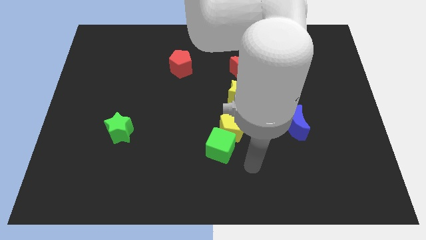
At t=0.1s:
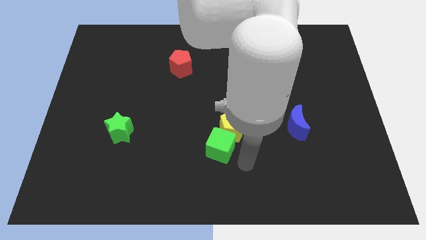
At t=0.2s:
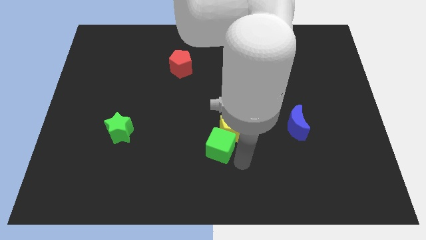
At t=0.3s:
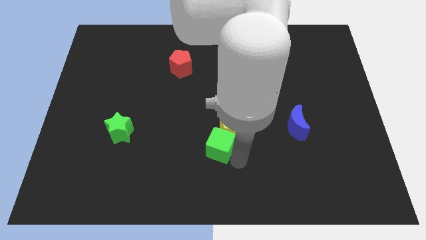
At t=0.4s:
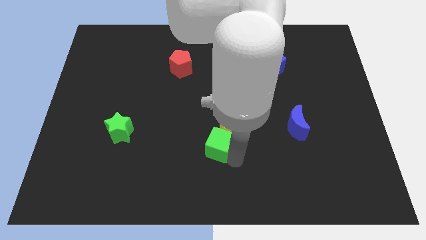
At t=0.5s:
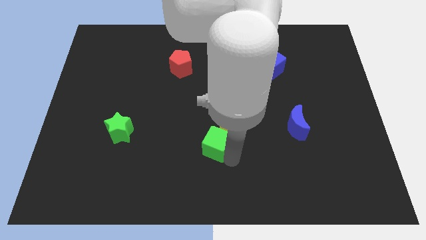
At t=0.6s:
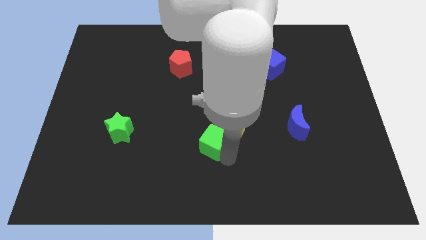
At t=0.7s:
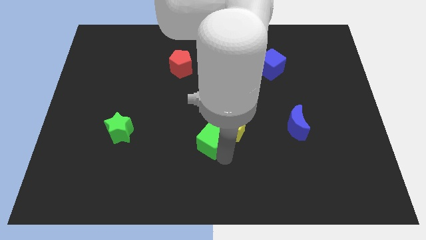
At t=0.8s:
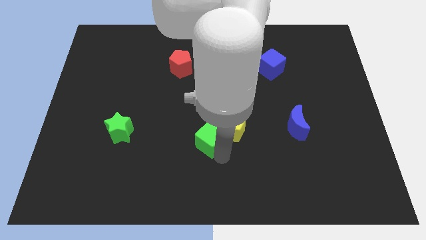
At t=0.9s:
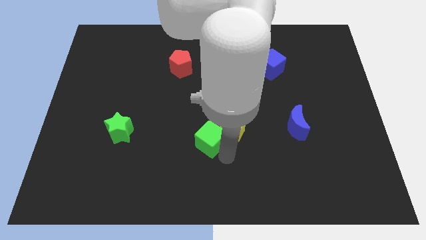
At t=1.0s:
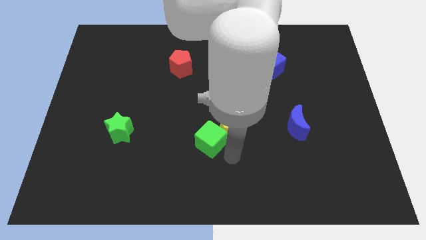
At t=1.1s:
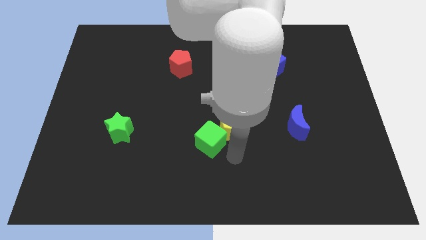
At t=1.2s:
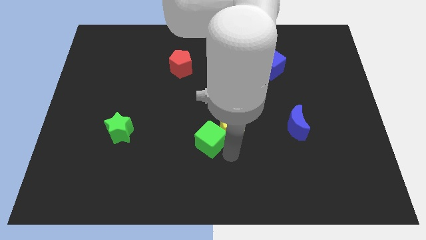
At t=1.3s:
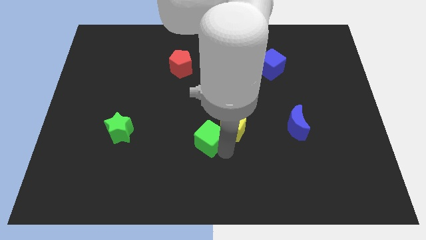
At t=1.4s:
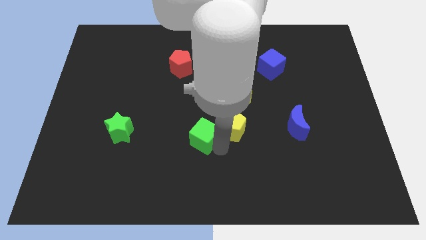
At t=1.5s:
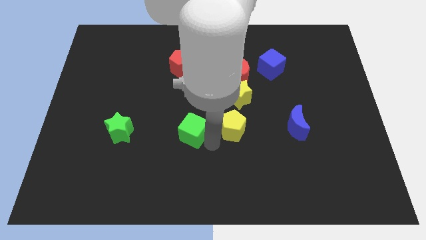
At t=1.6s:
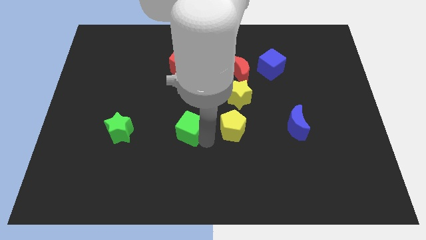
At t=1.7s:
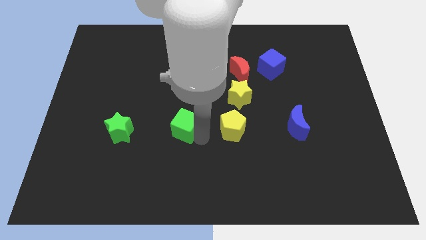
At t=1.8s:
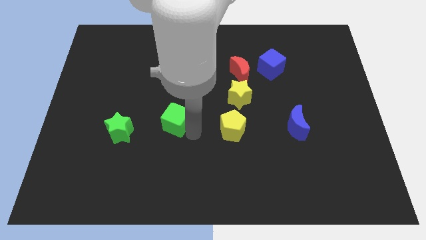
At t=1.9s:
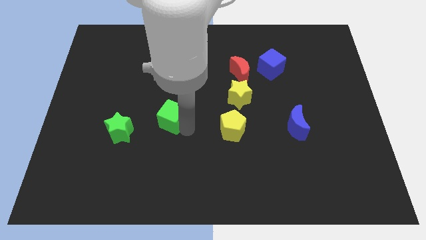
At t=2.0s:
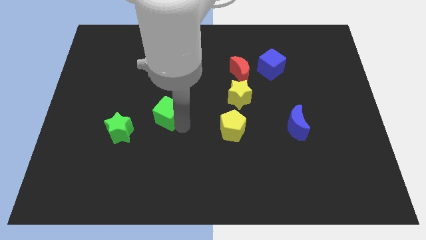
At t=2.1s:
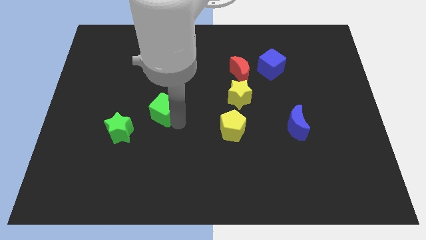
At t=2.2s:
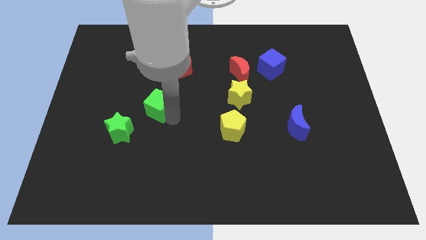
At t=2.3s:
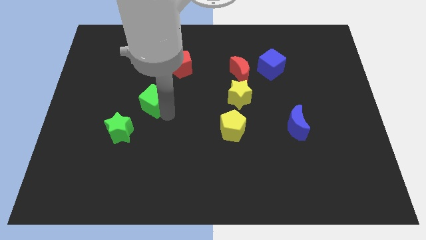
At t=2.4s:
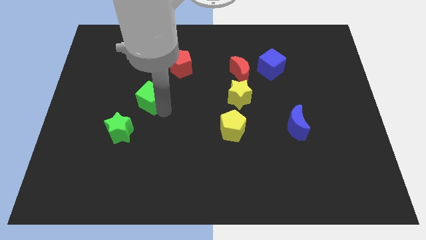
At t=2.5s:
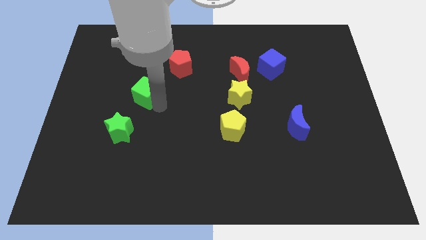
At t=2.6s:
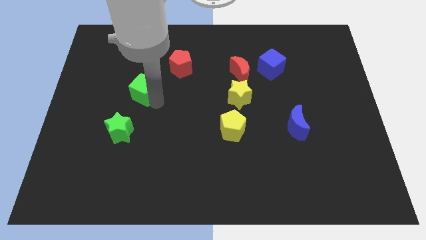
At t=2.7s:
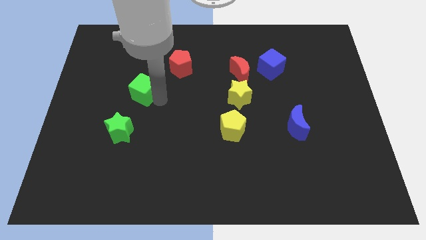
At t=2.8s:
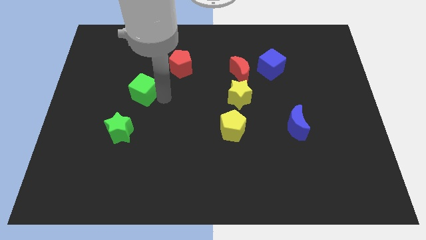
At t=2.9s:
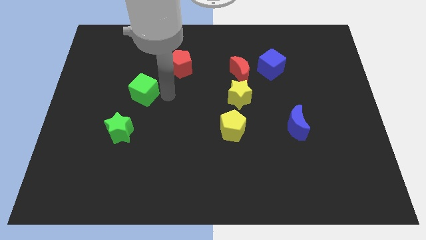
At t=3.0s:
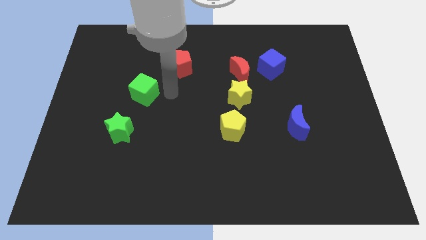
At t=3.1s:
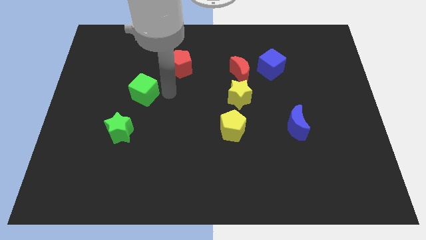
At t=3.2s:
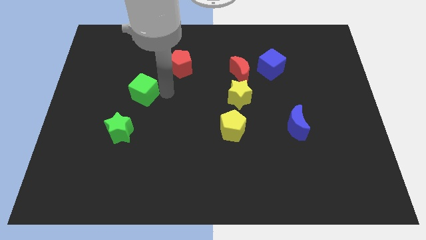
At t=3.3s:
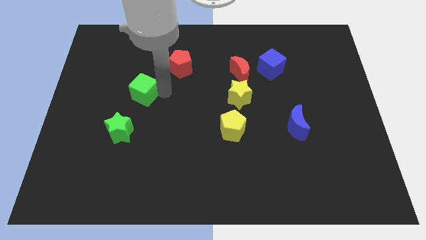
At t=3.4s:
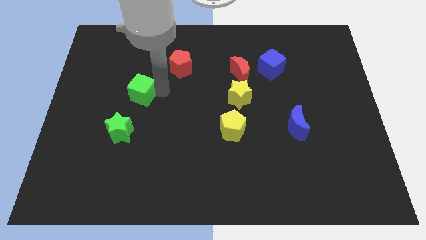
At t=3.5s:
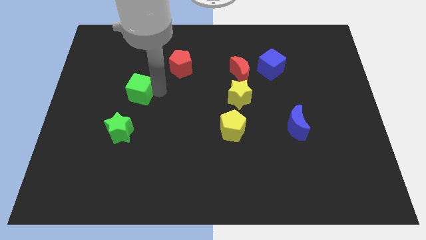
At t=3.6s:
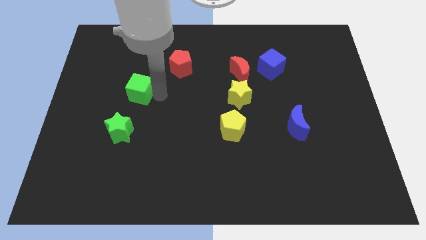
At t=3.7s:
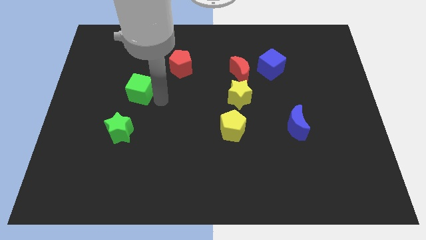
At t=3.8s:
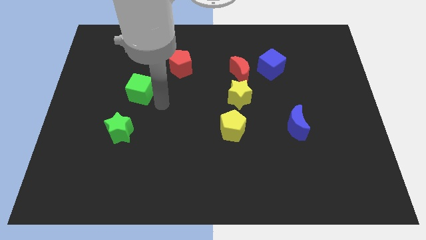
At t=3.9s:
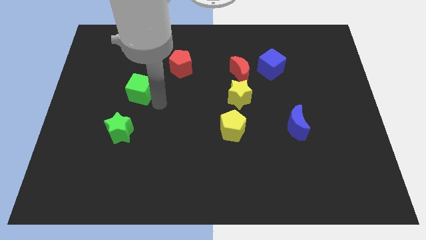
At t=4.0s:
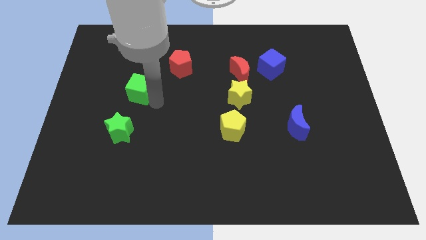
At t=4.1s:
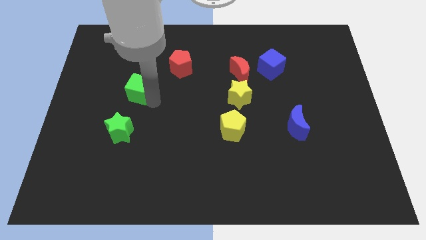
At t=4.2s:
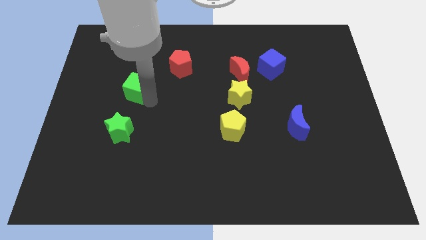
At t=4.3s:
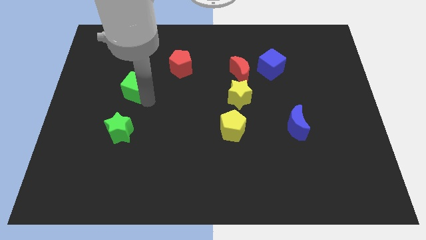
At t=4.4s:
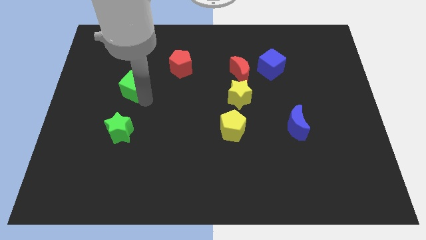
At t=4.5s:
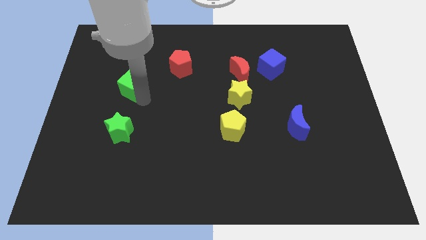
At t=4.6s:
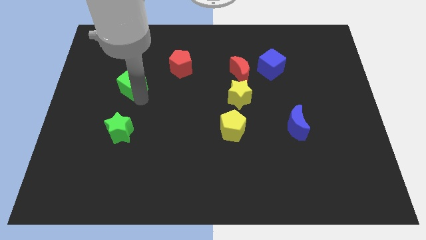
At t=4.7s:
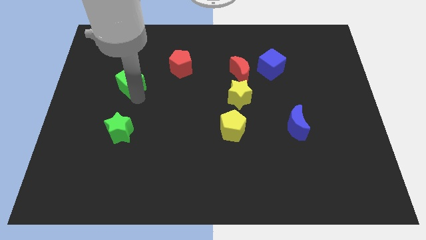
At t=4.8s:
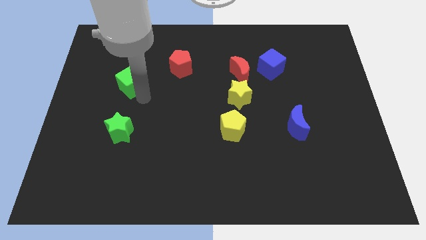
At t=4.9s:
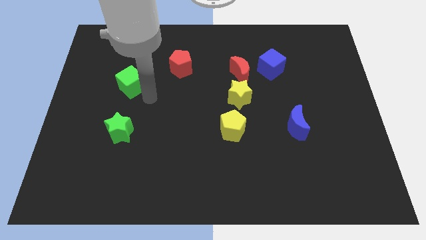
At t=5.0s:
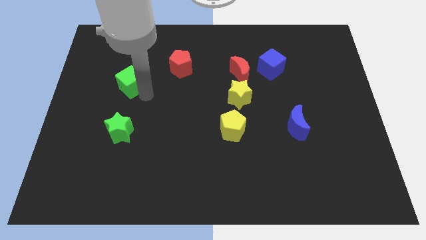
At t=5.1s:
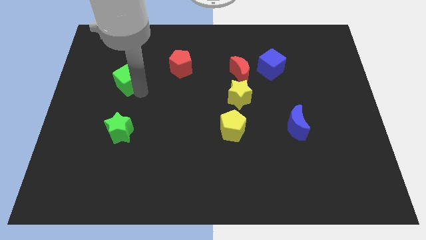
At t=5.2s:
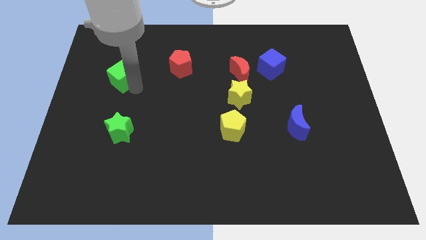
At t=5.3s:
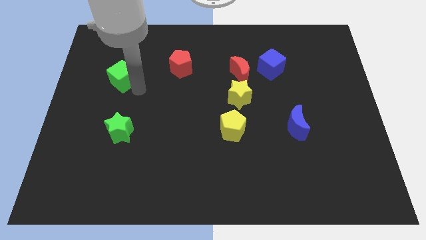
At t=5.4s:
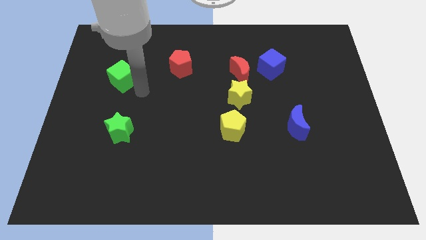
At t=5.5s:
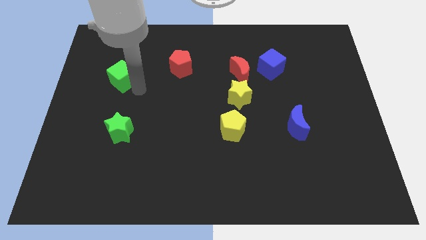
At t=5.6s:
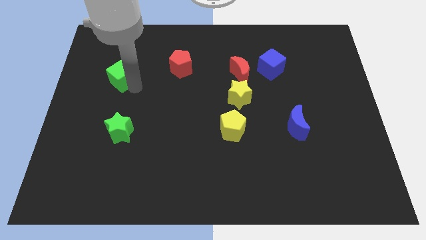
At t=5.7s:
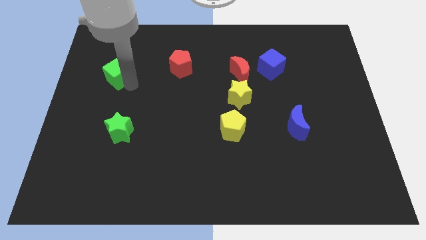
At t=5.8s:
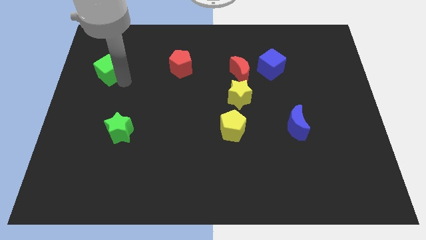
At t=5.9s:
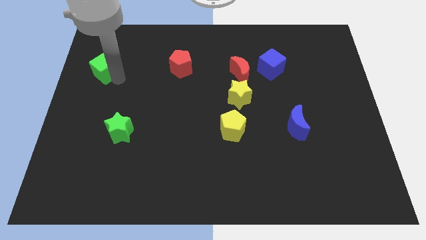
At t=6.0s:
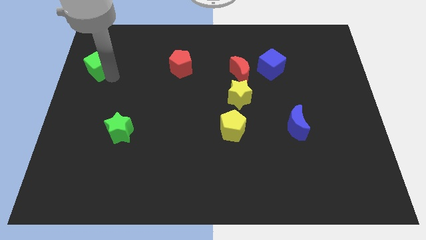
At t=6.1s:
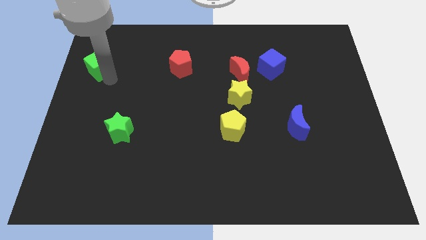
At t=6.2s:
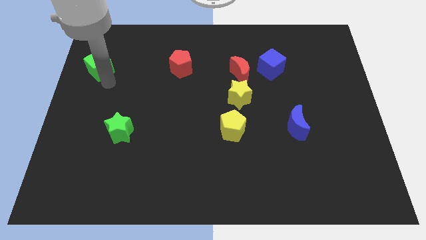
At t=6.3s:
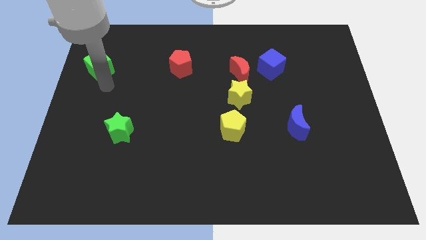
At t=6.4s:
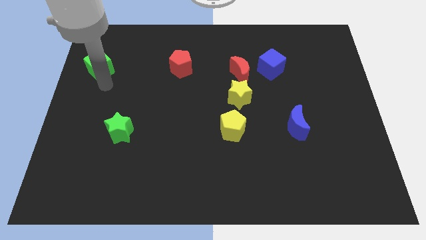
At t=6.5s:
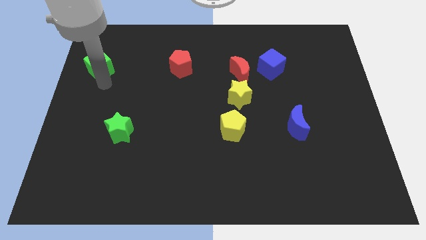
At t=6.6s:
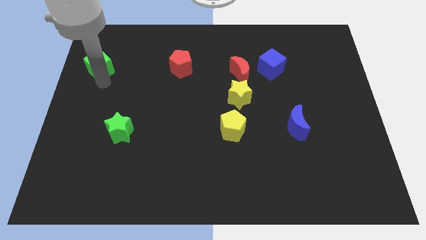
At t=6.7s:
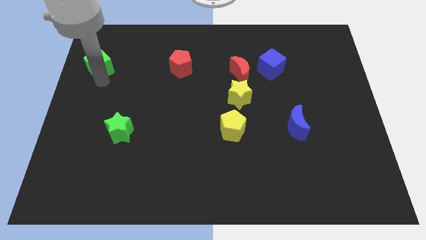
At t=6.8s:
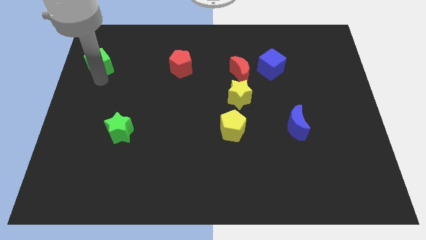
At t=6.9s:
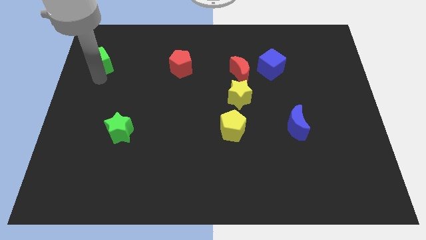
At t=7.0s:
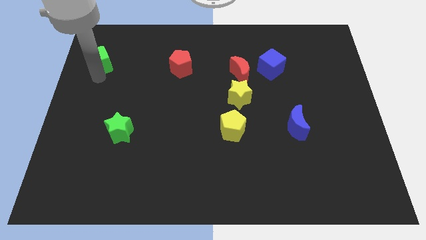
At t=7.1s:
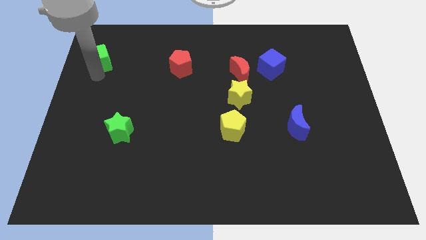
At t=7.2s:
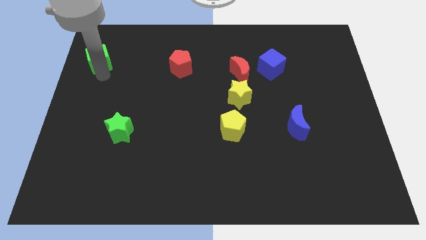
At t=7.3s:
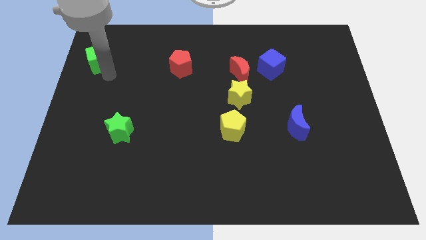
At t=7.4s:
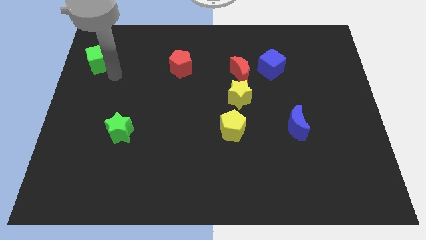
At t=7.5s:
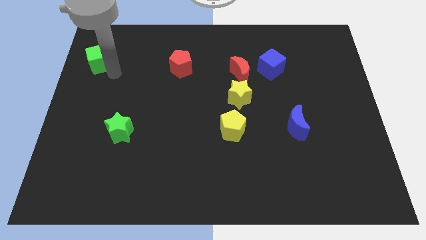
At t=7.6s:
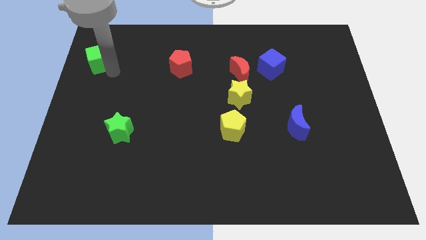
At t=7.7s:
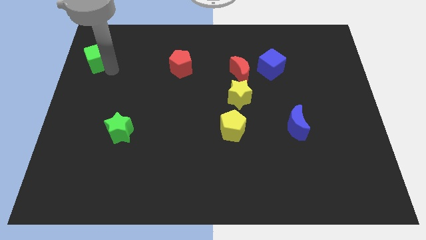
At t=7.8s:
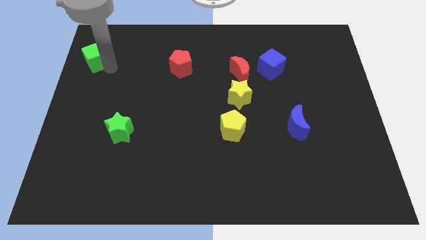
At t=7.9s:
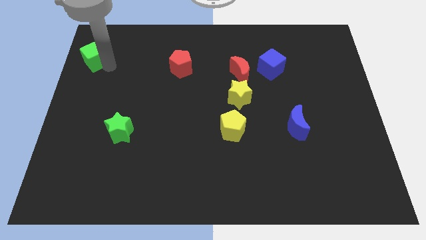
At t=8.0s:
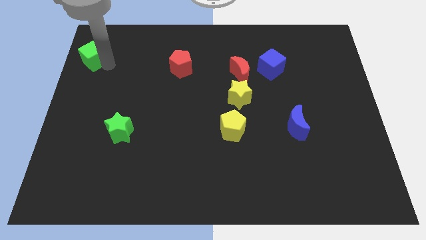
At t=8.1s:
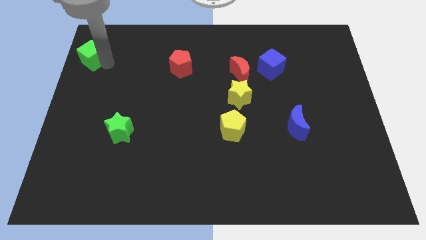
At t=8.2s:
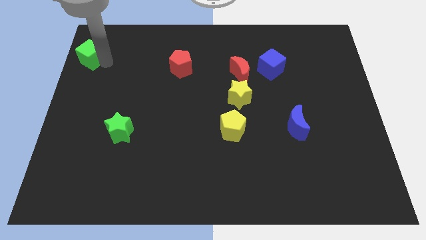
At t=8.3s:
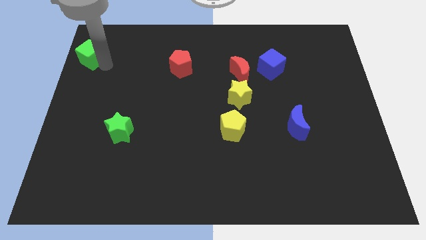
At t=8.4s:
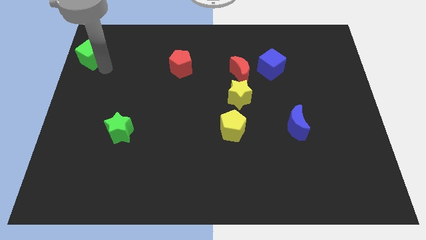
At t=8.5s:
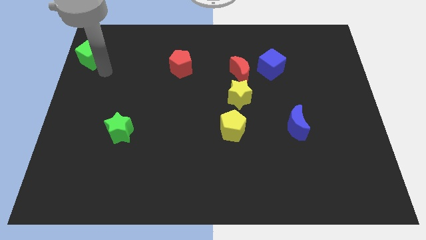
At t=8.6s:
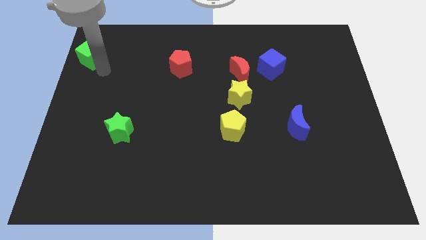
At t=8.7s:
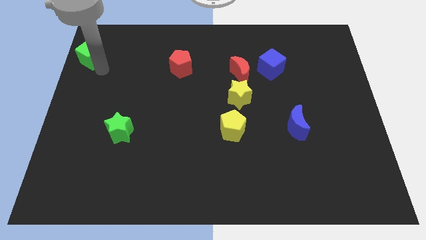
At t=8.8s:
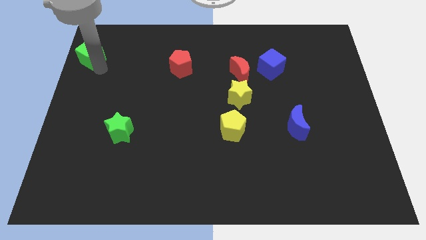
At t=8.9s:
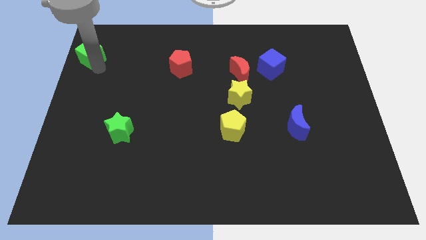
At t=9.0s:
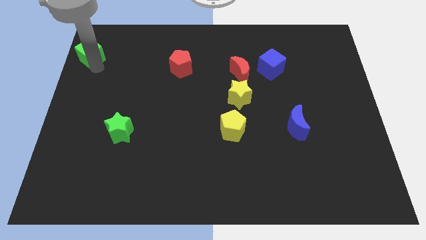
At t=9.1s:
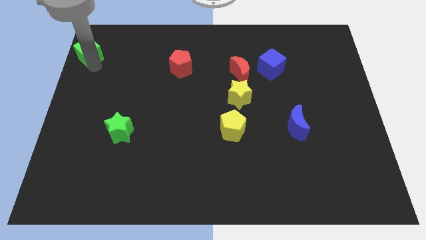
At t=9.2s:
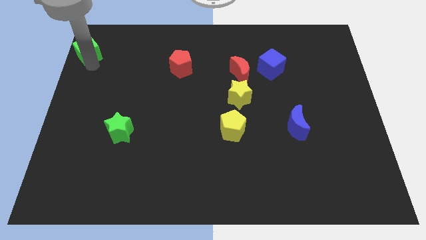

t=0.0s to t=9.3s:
push the green cube to the top left
